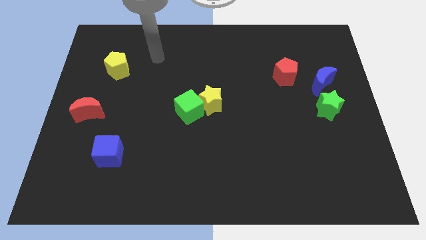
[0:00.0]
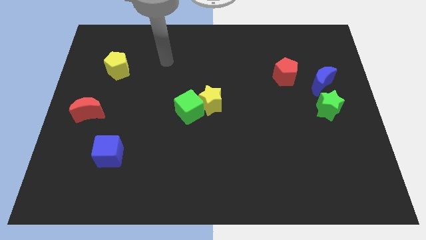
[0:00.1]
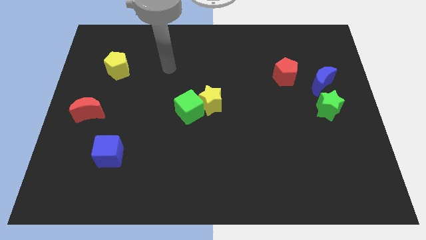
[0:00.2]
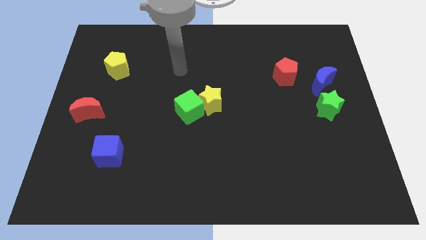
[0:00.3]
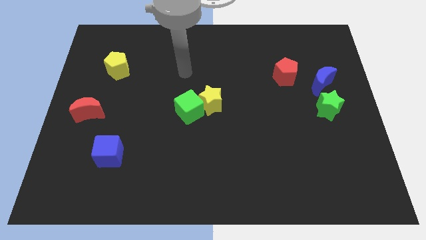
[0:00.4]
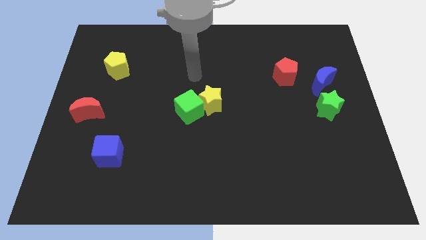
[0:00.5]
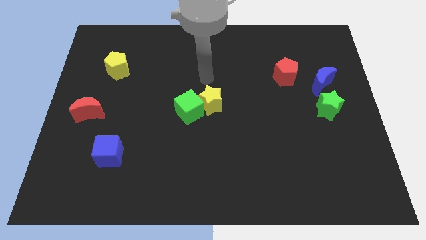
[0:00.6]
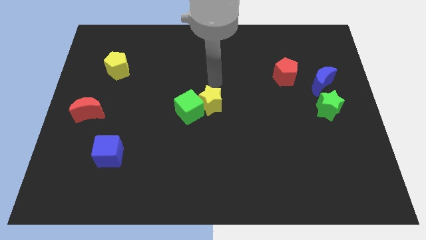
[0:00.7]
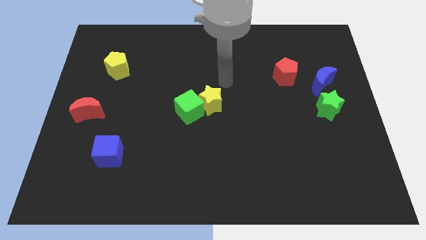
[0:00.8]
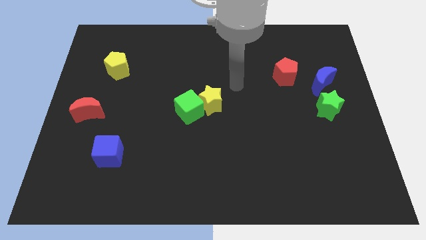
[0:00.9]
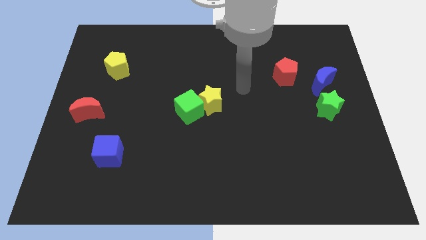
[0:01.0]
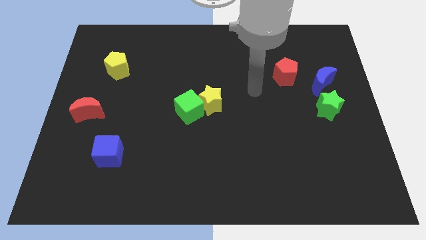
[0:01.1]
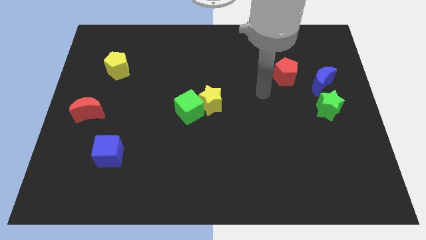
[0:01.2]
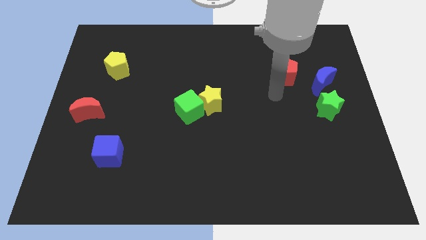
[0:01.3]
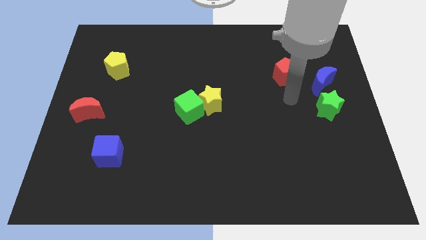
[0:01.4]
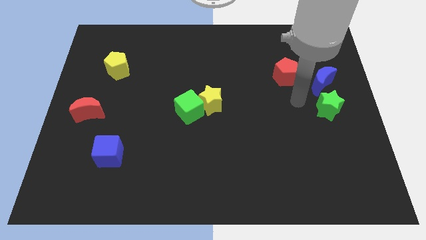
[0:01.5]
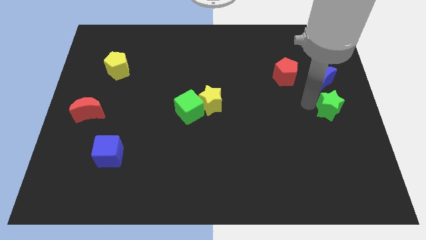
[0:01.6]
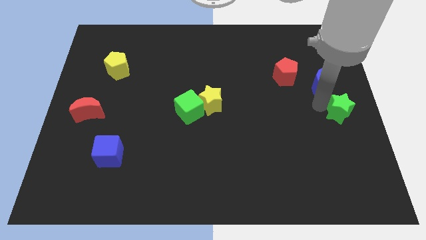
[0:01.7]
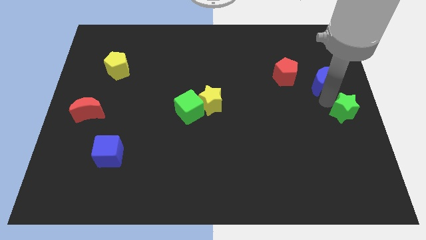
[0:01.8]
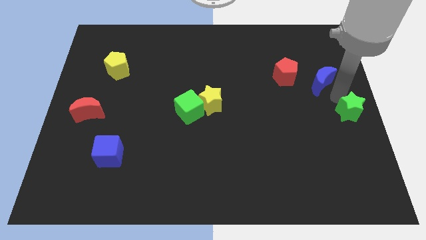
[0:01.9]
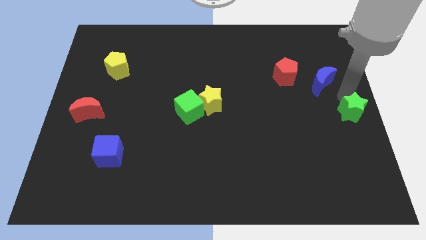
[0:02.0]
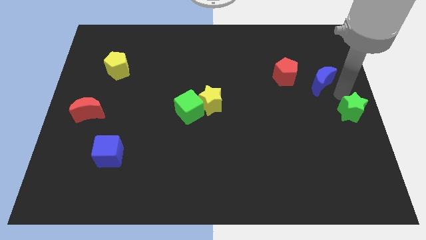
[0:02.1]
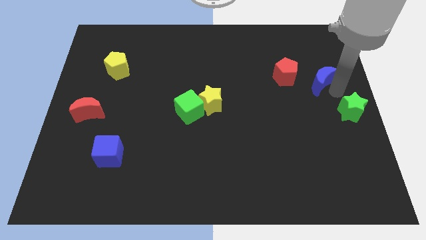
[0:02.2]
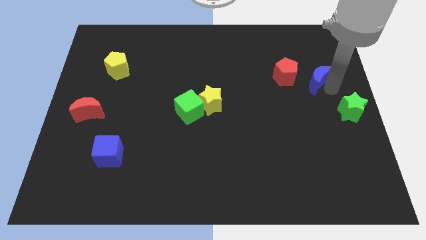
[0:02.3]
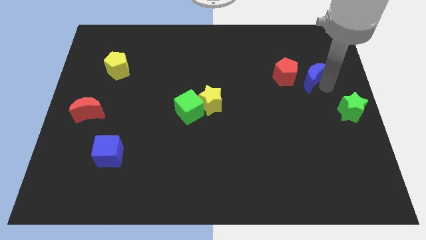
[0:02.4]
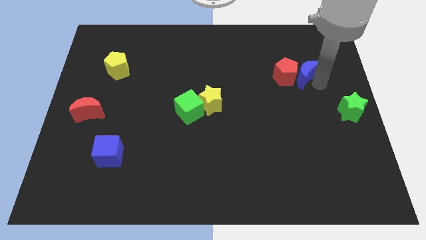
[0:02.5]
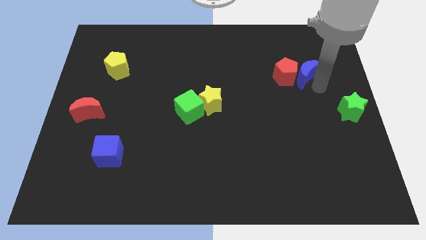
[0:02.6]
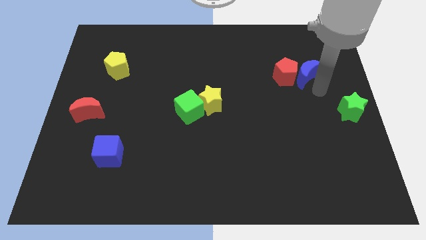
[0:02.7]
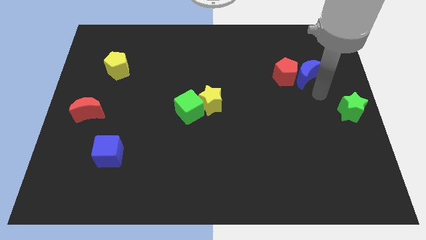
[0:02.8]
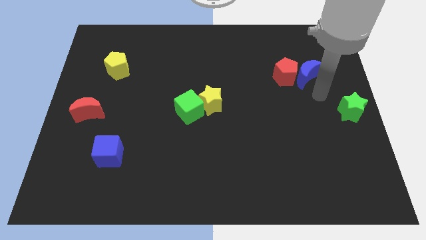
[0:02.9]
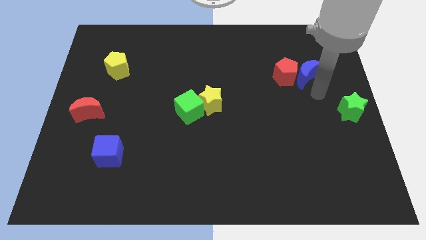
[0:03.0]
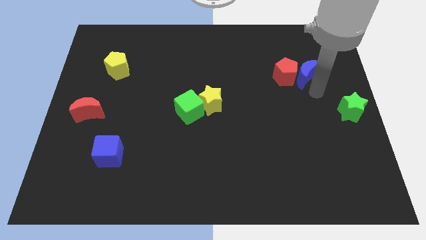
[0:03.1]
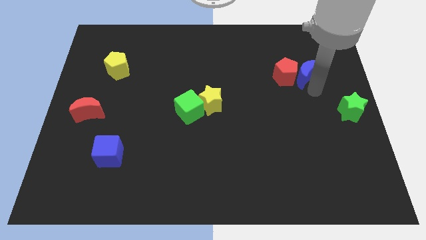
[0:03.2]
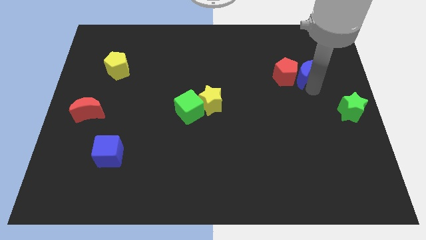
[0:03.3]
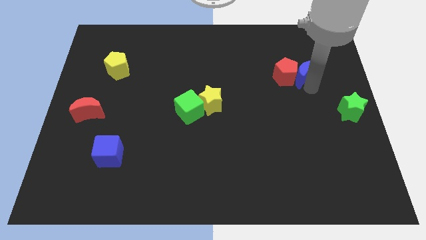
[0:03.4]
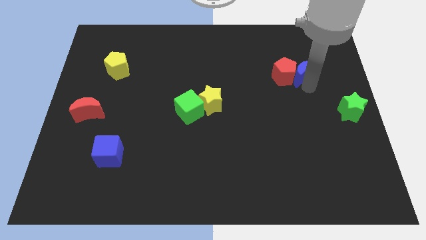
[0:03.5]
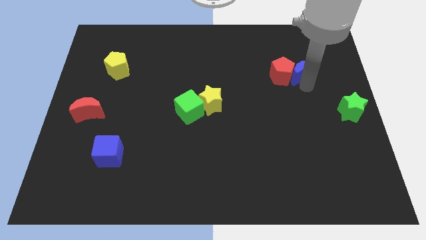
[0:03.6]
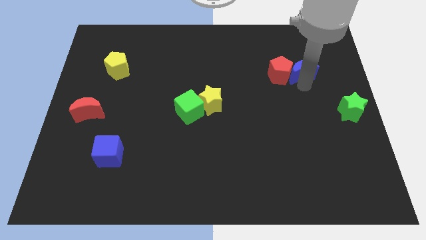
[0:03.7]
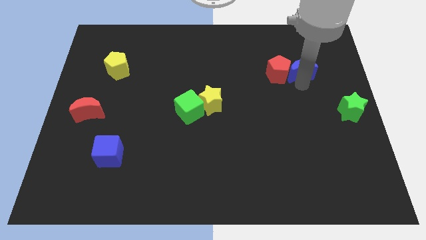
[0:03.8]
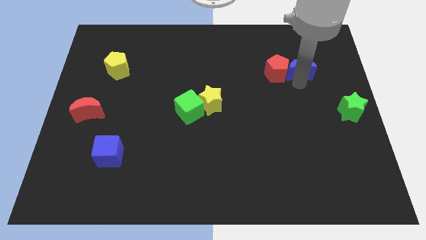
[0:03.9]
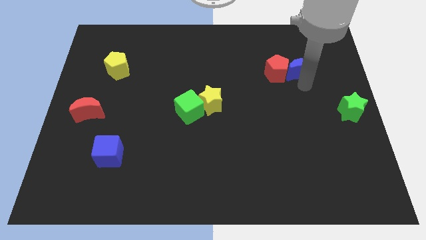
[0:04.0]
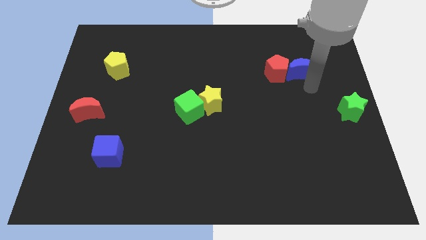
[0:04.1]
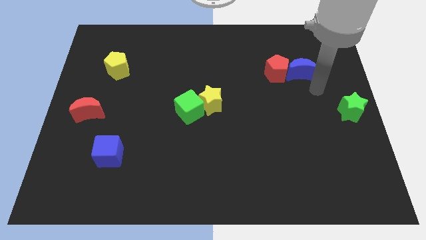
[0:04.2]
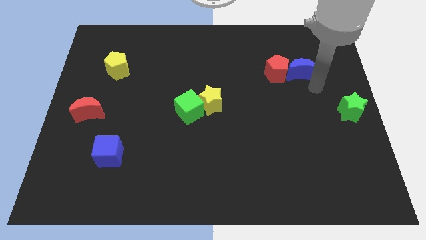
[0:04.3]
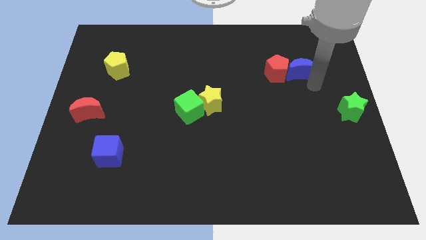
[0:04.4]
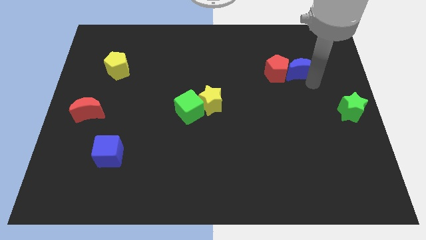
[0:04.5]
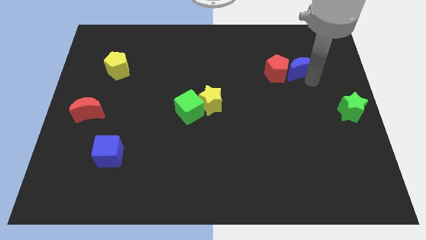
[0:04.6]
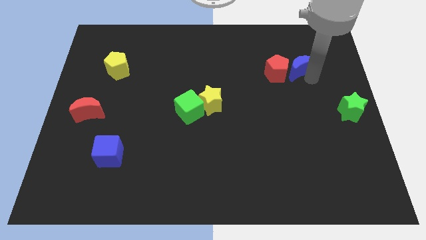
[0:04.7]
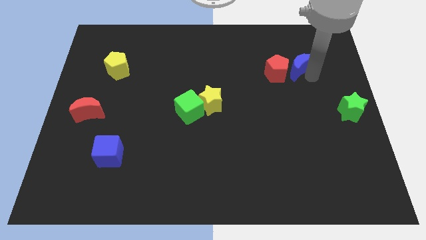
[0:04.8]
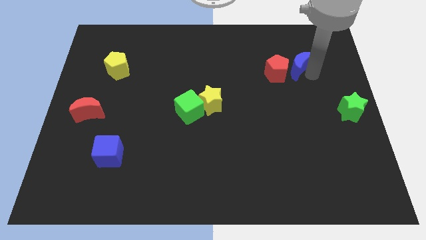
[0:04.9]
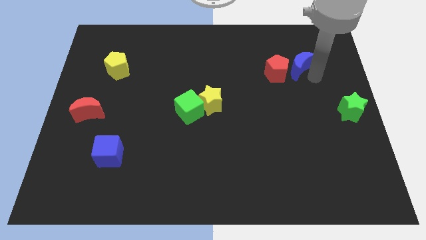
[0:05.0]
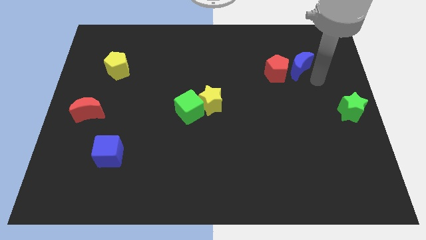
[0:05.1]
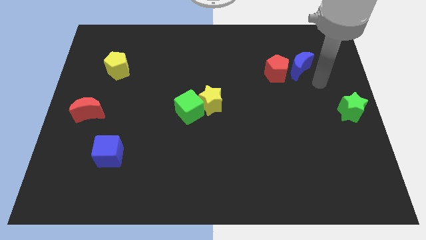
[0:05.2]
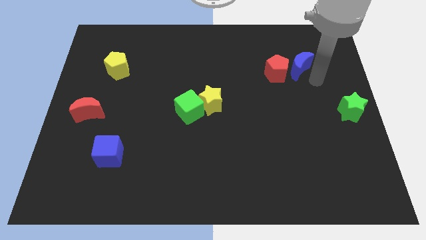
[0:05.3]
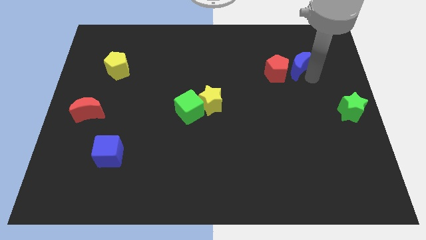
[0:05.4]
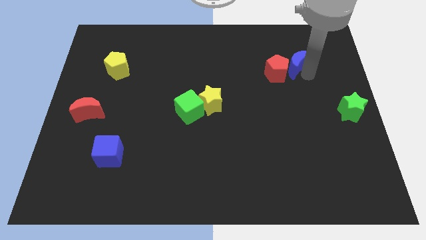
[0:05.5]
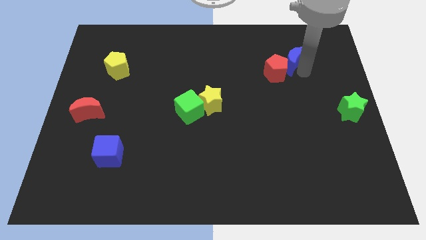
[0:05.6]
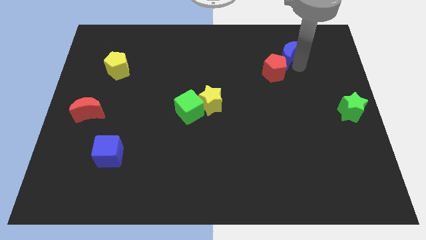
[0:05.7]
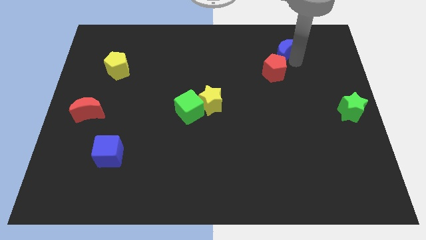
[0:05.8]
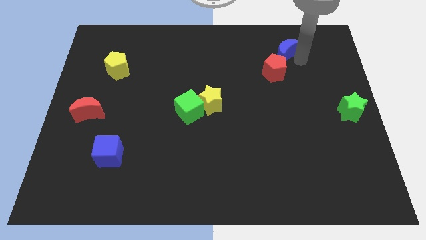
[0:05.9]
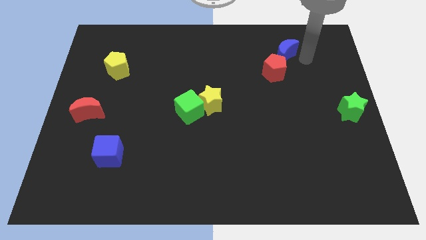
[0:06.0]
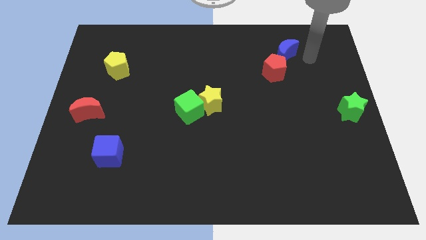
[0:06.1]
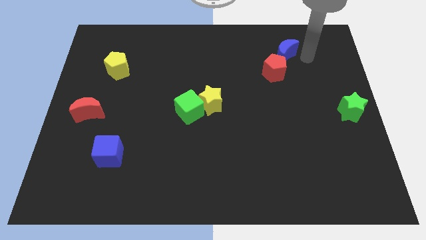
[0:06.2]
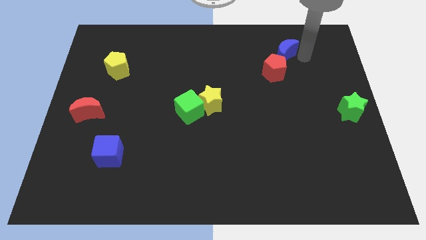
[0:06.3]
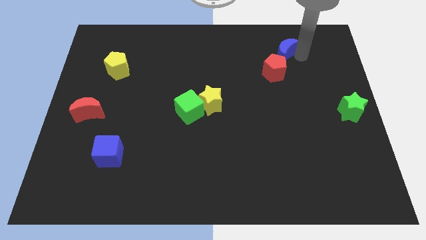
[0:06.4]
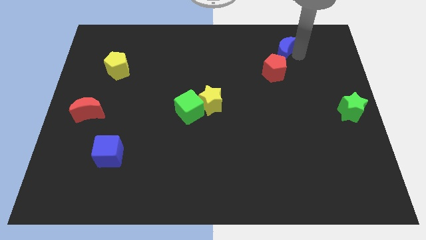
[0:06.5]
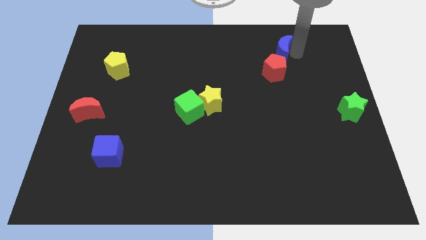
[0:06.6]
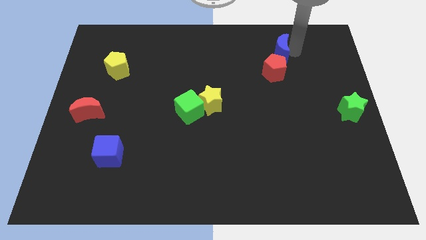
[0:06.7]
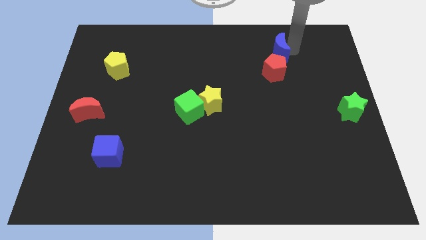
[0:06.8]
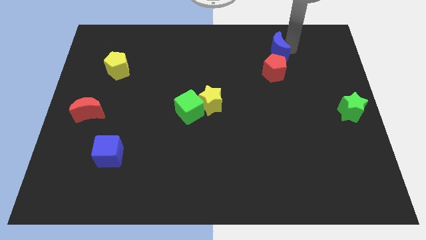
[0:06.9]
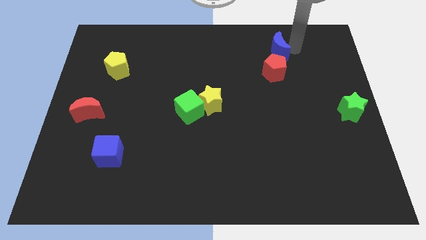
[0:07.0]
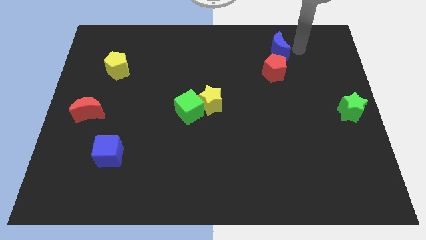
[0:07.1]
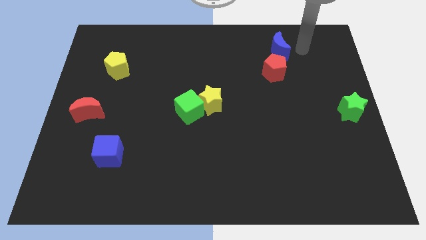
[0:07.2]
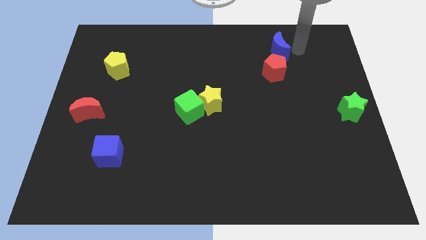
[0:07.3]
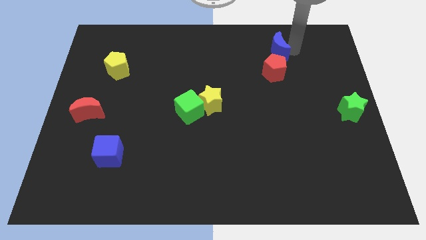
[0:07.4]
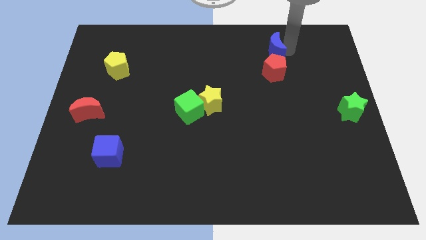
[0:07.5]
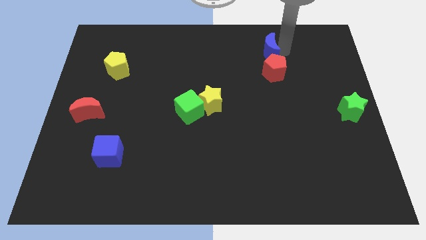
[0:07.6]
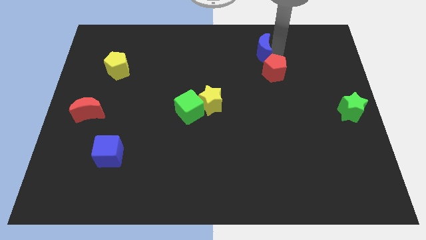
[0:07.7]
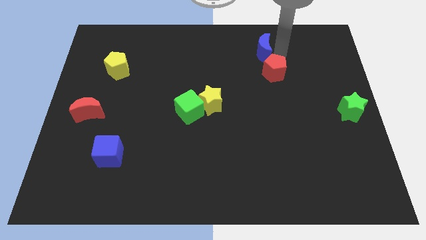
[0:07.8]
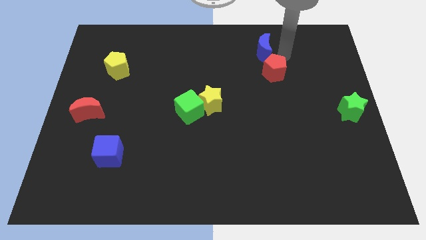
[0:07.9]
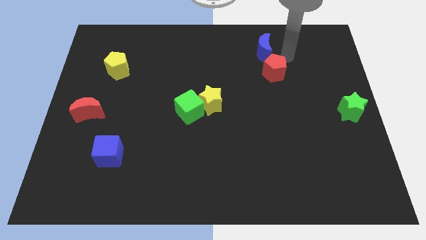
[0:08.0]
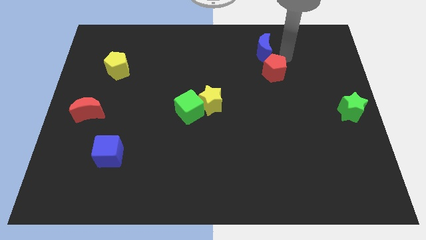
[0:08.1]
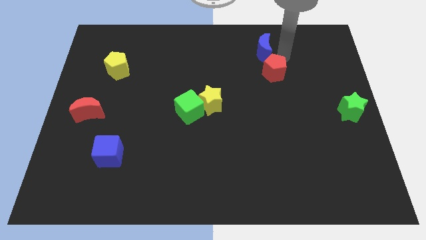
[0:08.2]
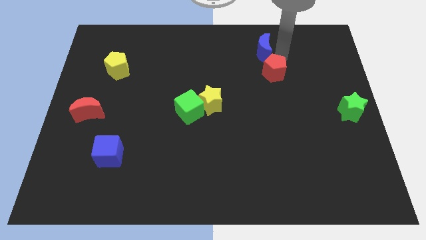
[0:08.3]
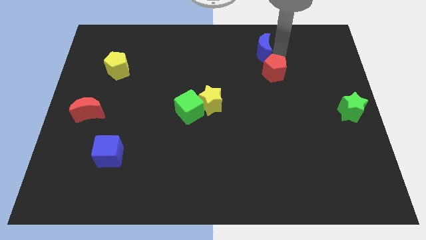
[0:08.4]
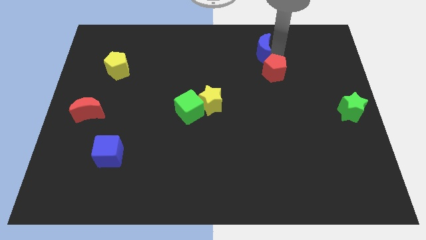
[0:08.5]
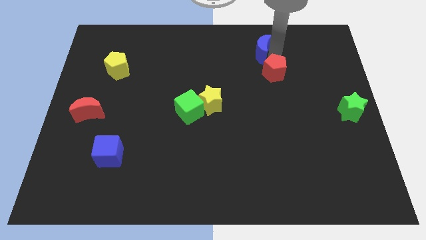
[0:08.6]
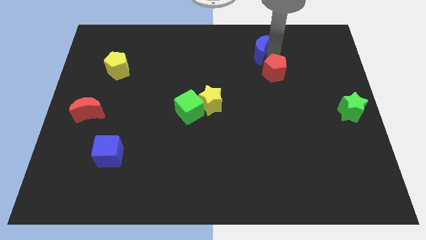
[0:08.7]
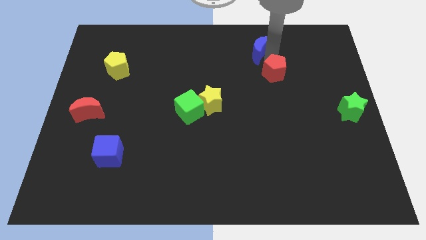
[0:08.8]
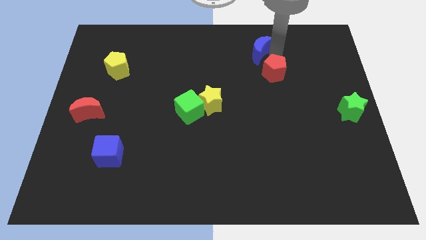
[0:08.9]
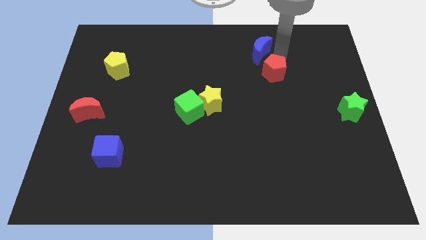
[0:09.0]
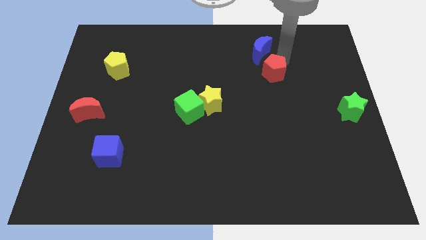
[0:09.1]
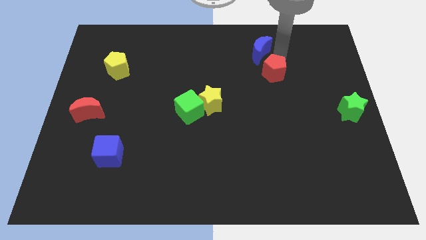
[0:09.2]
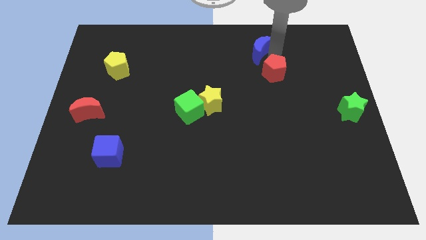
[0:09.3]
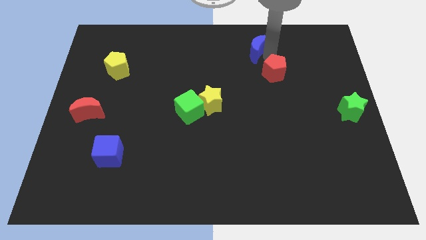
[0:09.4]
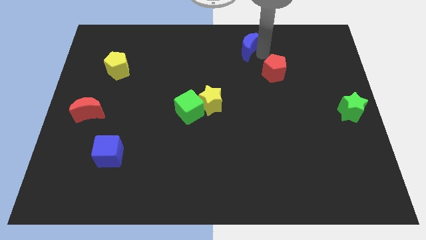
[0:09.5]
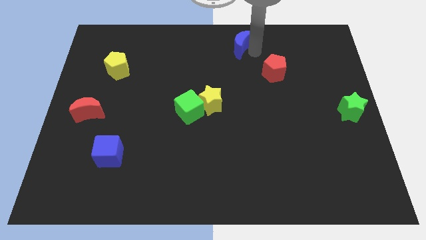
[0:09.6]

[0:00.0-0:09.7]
put the blue moon to the top
